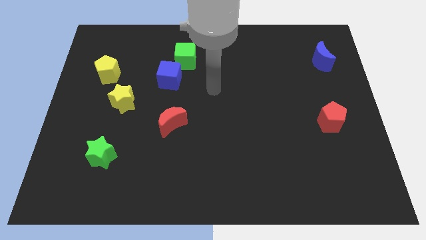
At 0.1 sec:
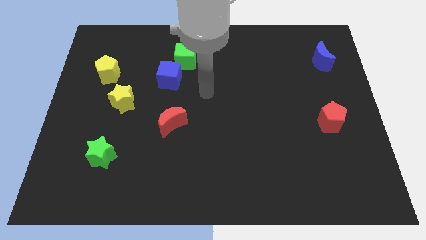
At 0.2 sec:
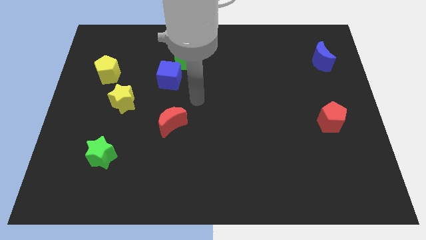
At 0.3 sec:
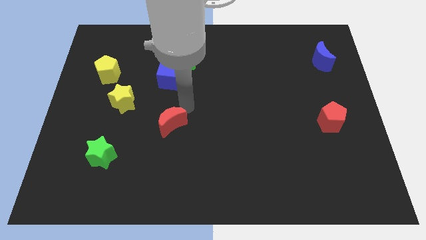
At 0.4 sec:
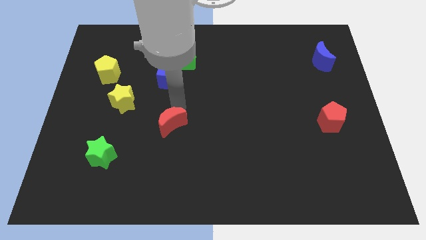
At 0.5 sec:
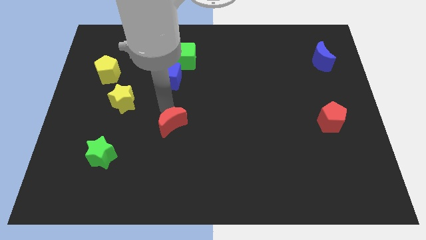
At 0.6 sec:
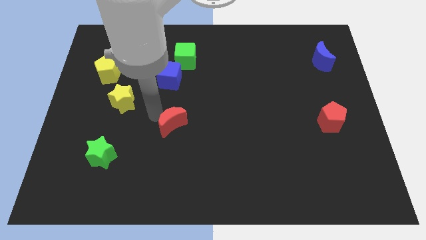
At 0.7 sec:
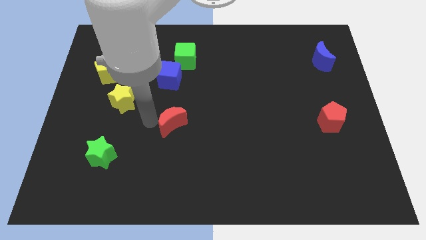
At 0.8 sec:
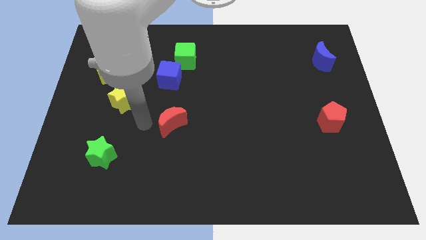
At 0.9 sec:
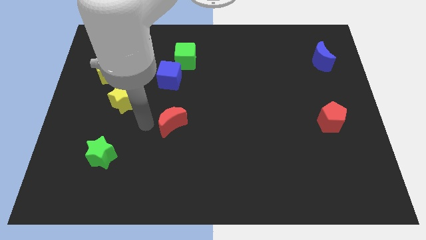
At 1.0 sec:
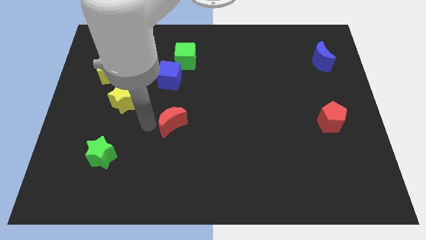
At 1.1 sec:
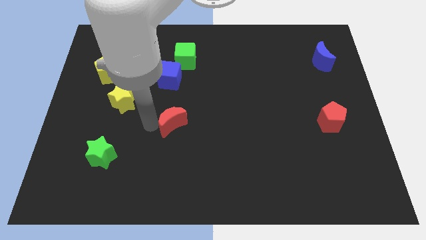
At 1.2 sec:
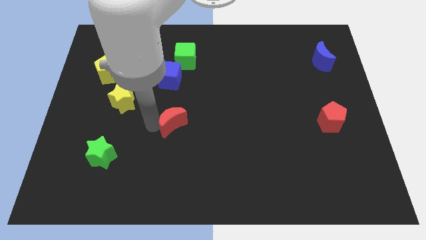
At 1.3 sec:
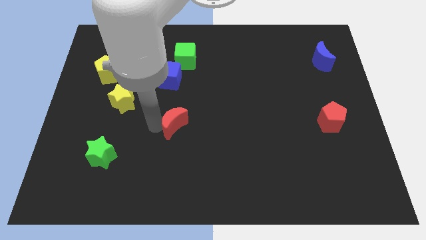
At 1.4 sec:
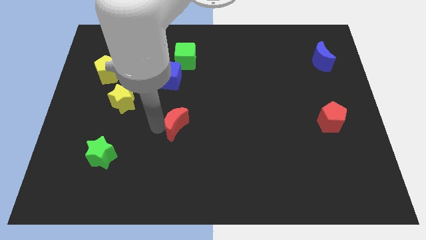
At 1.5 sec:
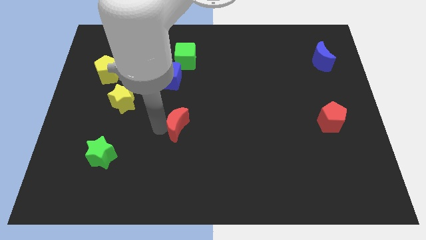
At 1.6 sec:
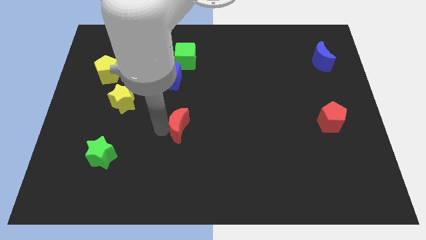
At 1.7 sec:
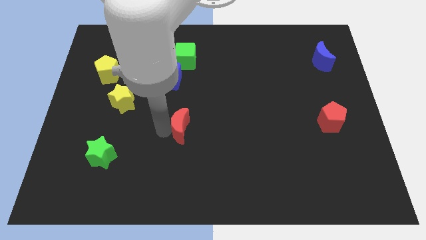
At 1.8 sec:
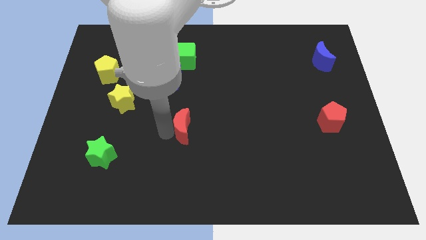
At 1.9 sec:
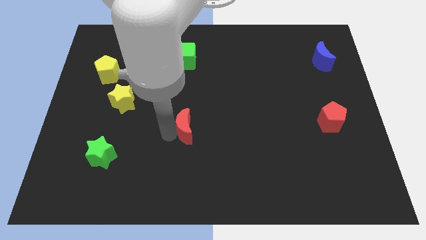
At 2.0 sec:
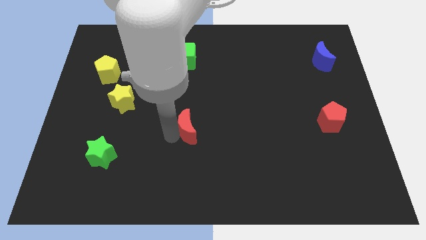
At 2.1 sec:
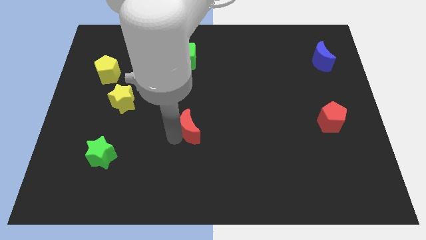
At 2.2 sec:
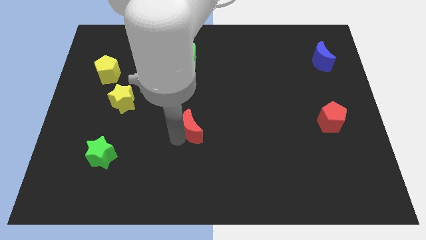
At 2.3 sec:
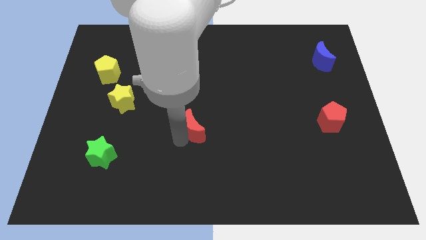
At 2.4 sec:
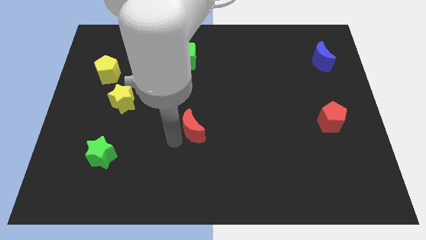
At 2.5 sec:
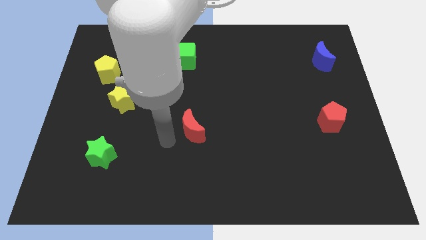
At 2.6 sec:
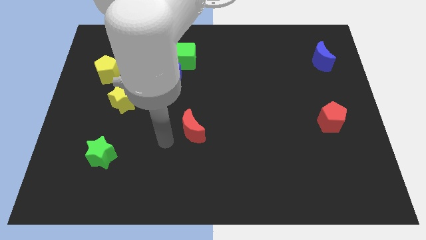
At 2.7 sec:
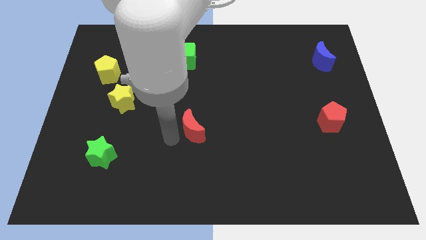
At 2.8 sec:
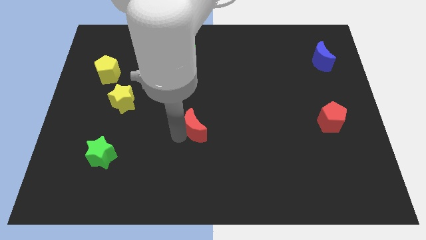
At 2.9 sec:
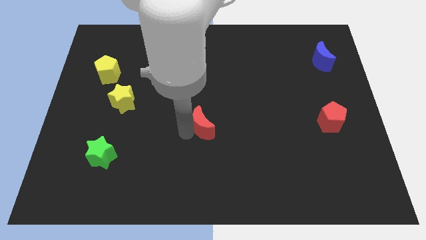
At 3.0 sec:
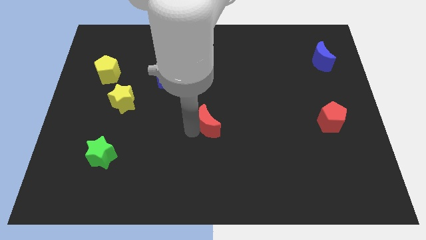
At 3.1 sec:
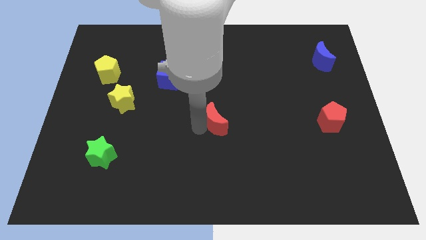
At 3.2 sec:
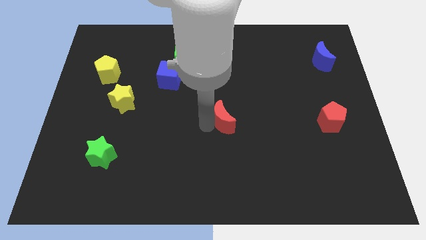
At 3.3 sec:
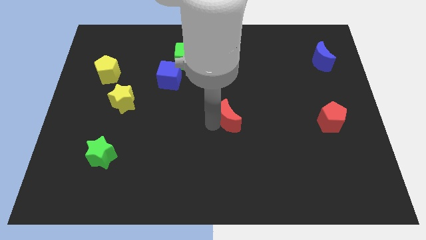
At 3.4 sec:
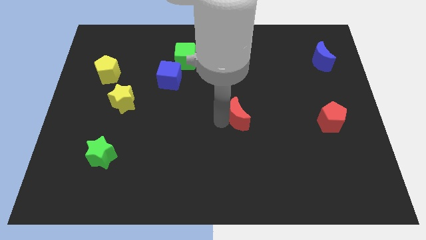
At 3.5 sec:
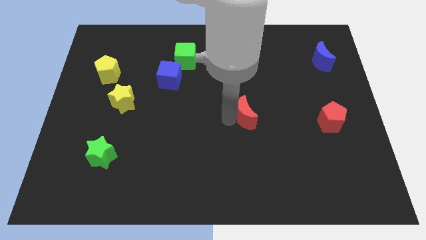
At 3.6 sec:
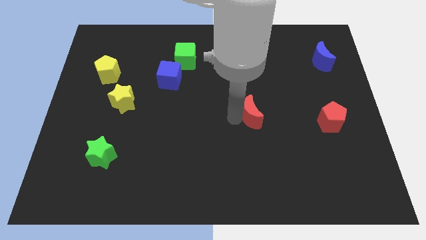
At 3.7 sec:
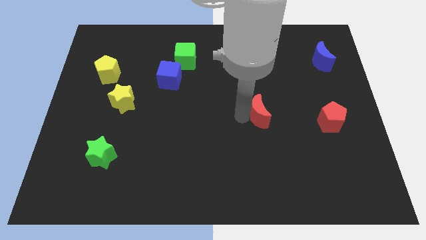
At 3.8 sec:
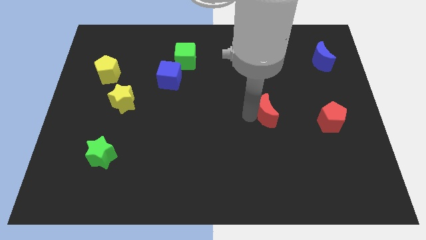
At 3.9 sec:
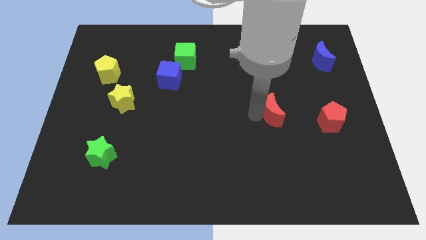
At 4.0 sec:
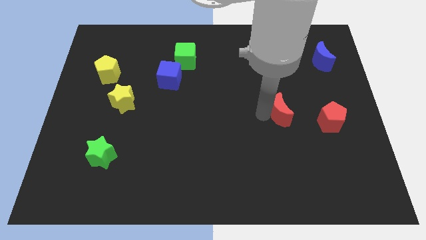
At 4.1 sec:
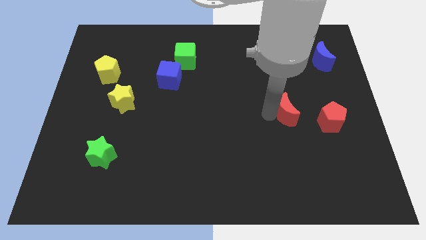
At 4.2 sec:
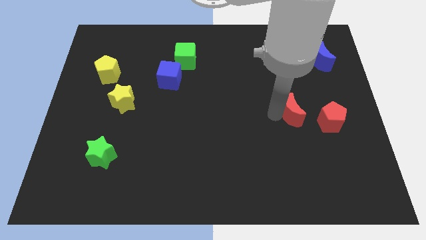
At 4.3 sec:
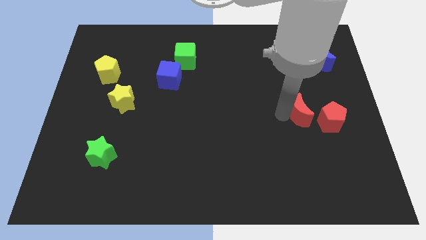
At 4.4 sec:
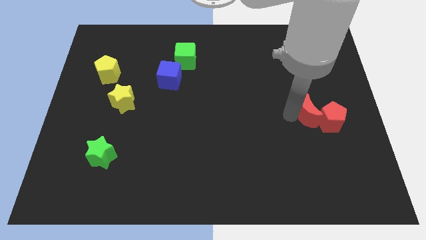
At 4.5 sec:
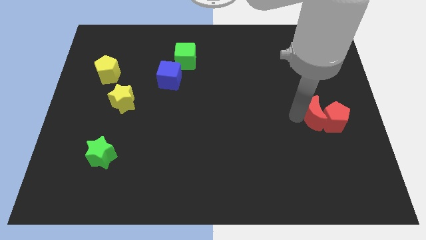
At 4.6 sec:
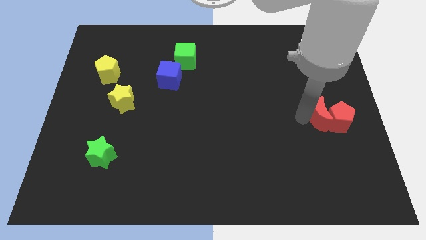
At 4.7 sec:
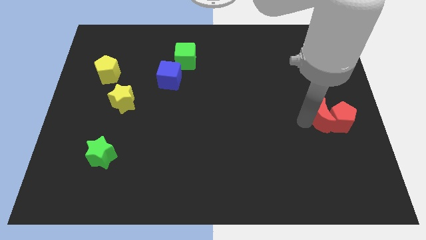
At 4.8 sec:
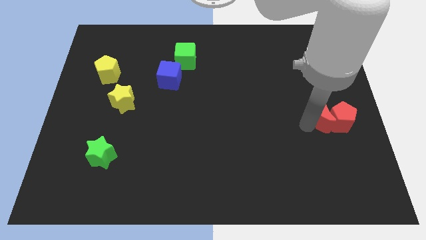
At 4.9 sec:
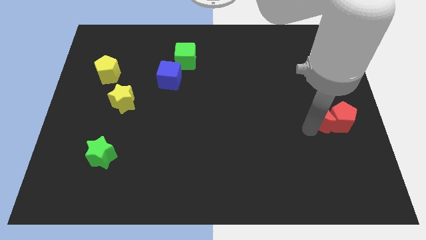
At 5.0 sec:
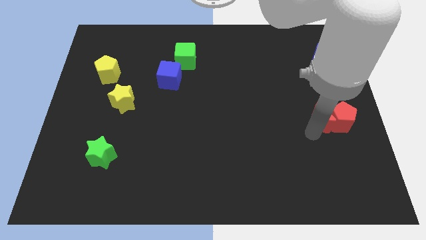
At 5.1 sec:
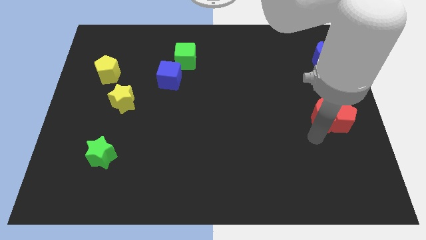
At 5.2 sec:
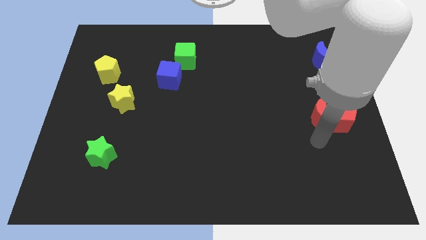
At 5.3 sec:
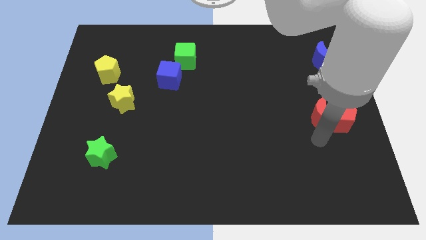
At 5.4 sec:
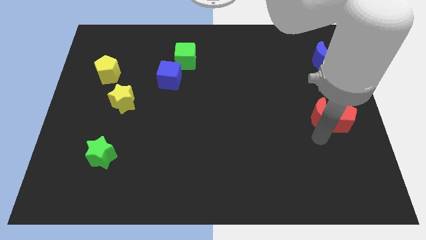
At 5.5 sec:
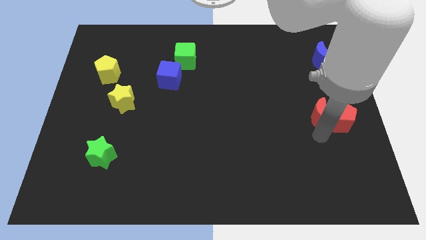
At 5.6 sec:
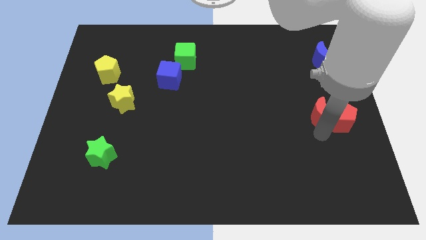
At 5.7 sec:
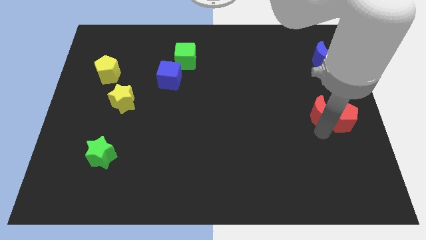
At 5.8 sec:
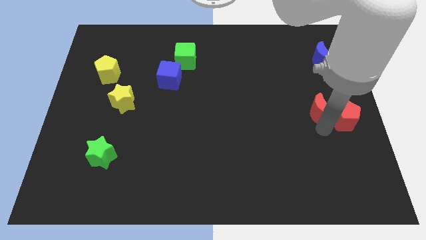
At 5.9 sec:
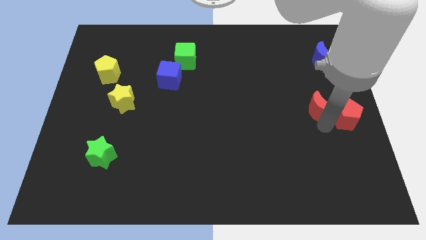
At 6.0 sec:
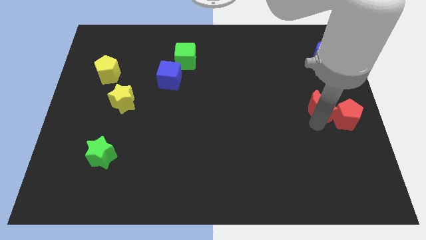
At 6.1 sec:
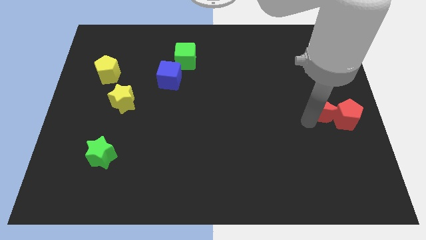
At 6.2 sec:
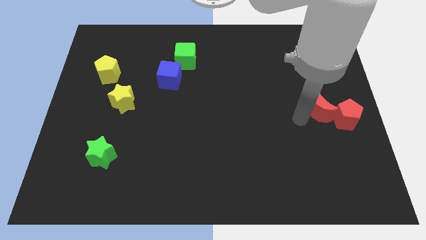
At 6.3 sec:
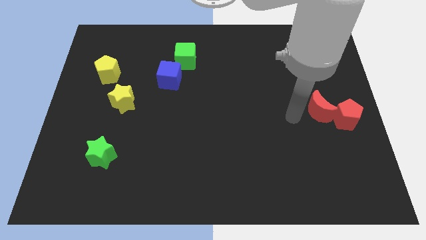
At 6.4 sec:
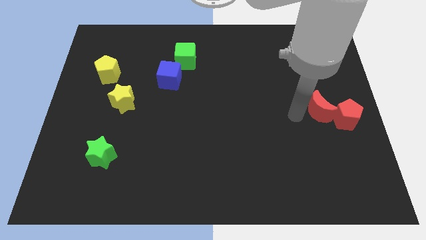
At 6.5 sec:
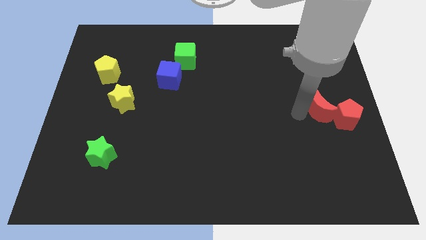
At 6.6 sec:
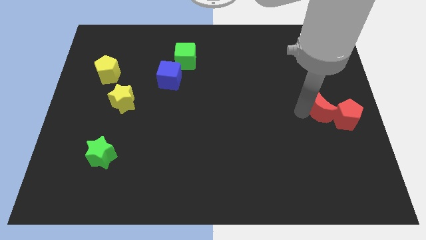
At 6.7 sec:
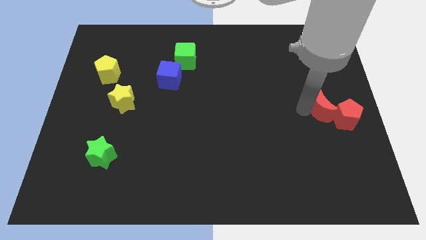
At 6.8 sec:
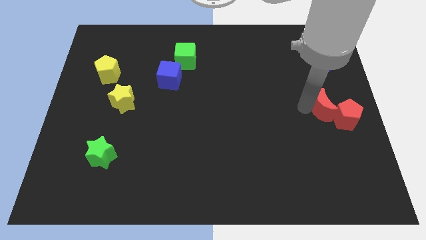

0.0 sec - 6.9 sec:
push the red moon to the right side of the board
